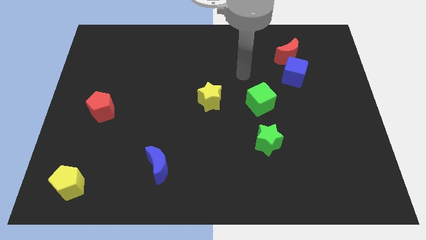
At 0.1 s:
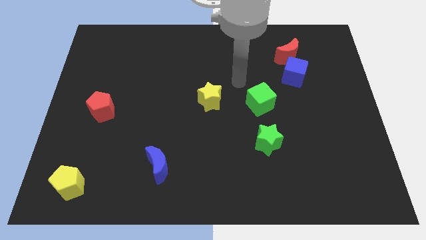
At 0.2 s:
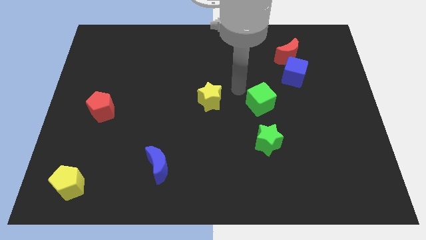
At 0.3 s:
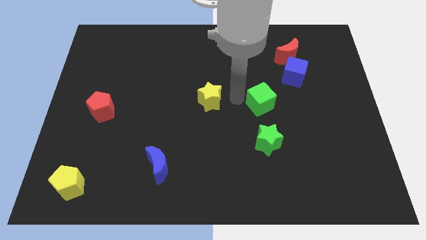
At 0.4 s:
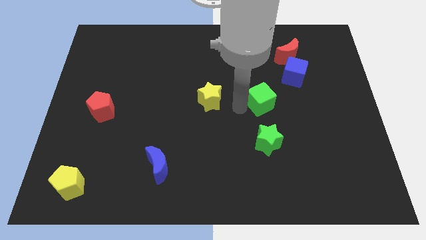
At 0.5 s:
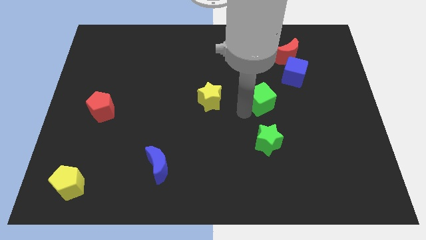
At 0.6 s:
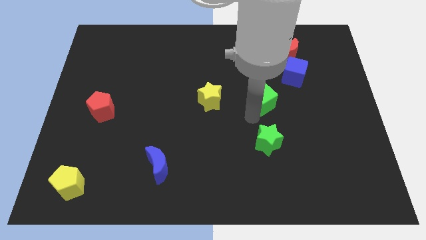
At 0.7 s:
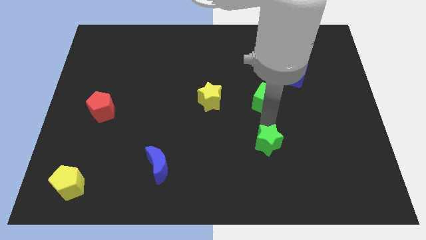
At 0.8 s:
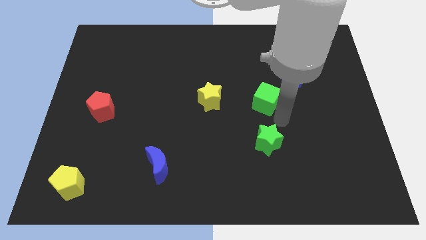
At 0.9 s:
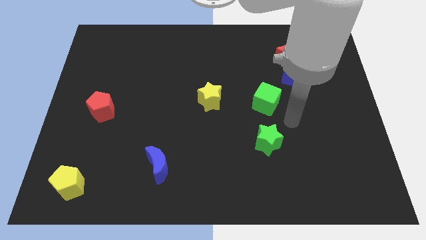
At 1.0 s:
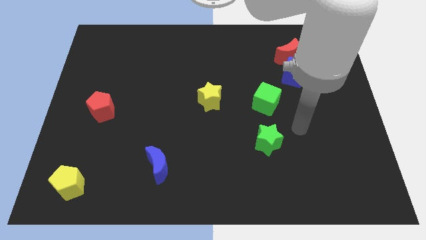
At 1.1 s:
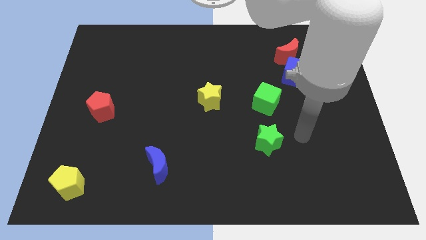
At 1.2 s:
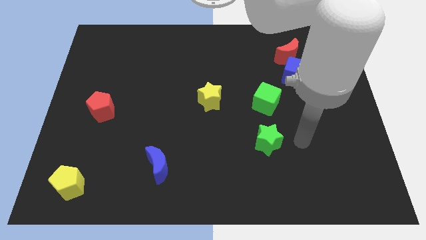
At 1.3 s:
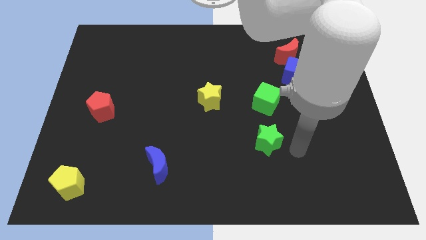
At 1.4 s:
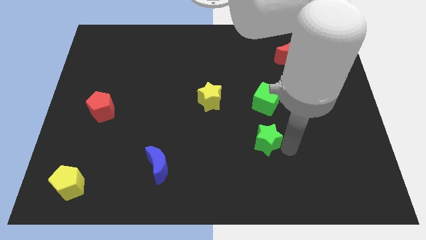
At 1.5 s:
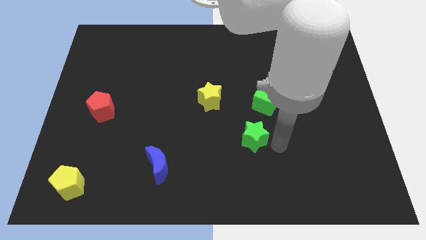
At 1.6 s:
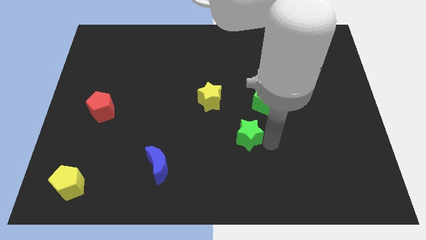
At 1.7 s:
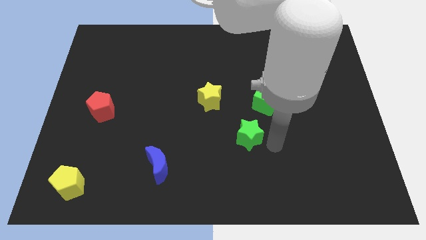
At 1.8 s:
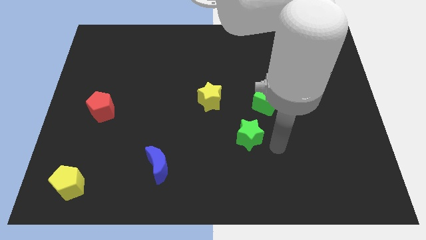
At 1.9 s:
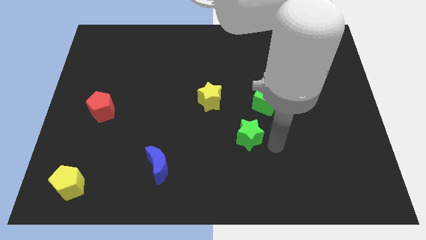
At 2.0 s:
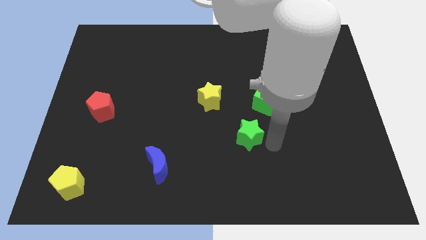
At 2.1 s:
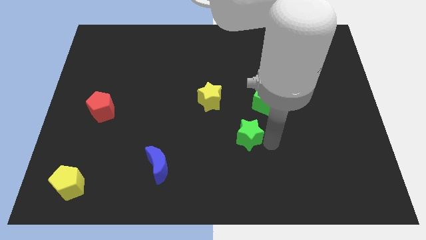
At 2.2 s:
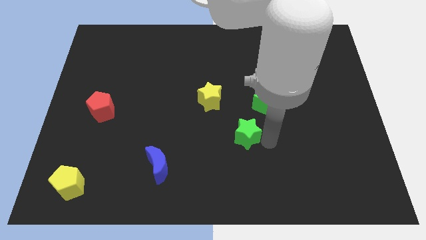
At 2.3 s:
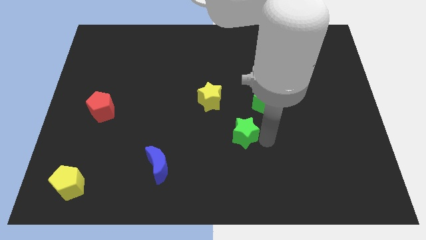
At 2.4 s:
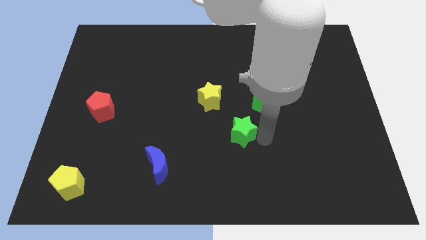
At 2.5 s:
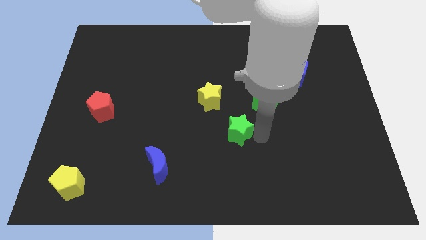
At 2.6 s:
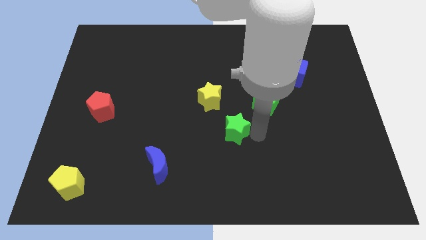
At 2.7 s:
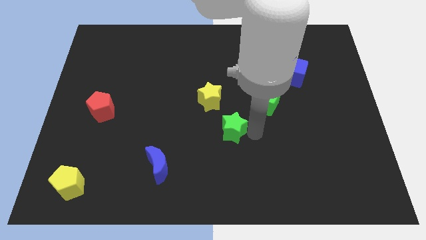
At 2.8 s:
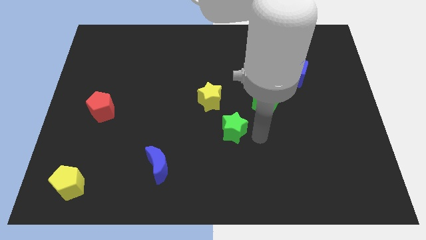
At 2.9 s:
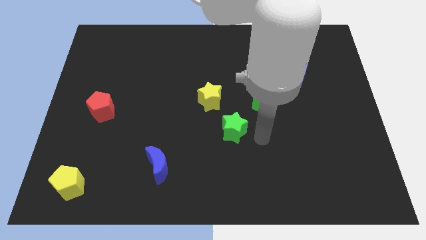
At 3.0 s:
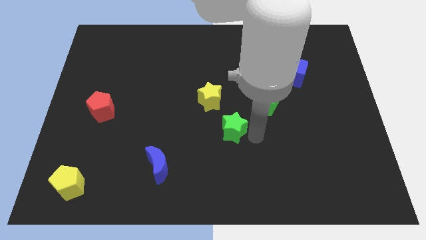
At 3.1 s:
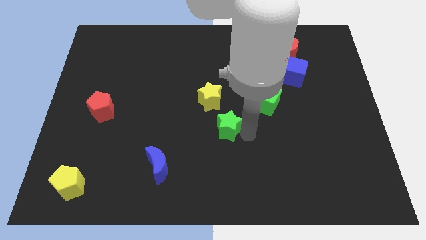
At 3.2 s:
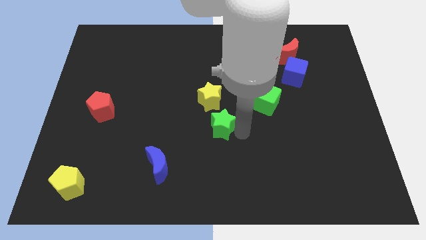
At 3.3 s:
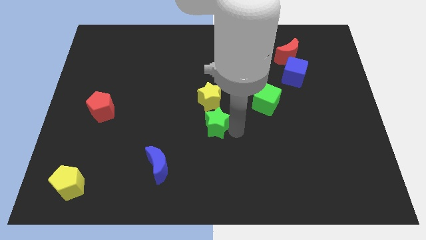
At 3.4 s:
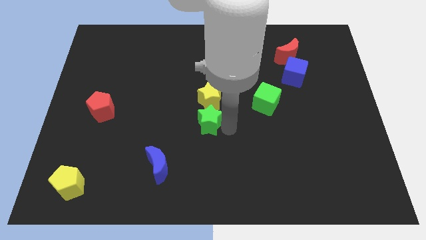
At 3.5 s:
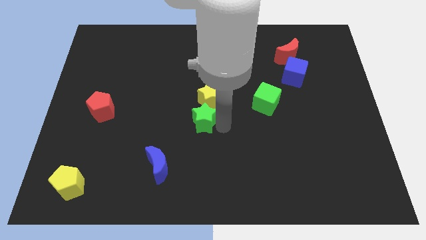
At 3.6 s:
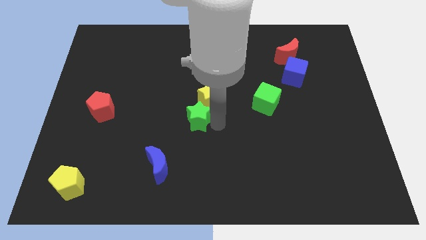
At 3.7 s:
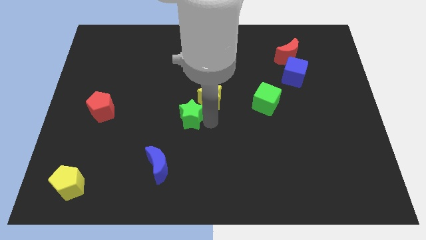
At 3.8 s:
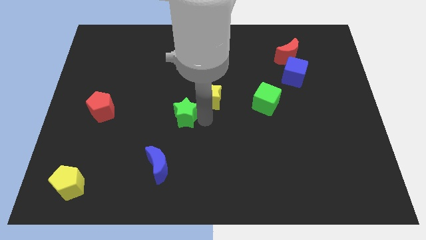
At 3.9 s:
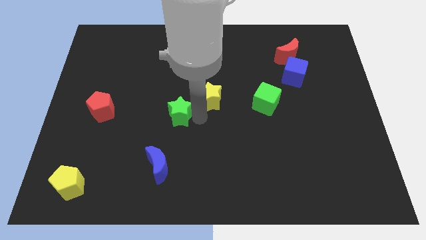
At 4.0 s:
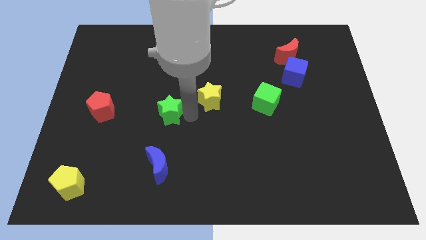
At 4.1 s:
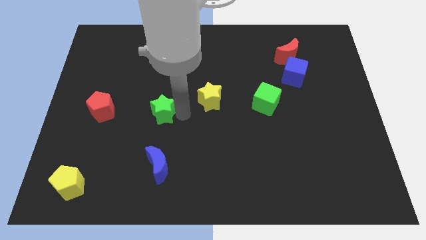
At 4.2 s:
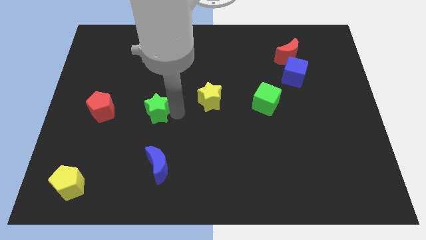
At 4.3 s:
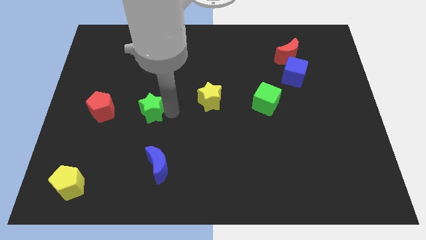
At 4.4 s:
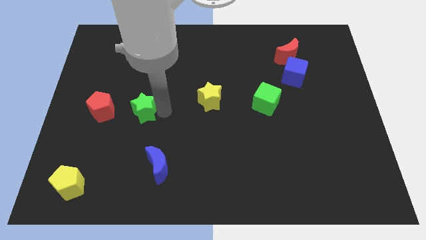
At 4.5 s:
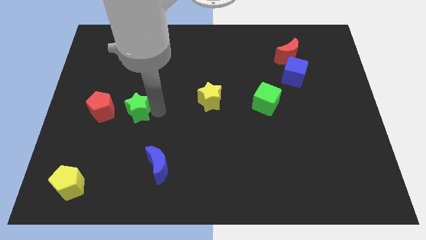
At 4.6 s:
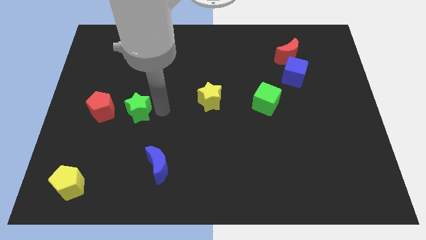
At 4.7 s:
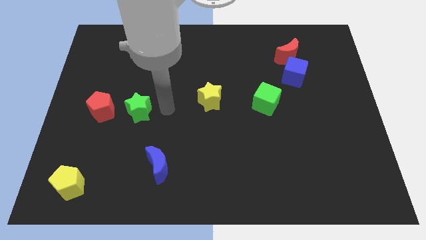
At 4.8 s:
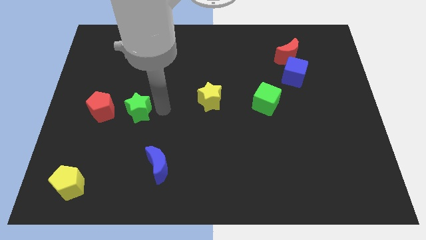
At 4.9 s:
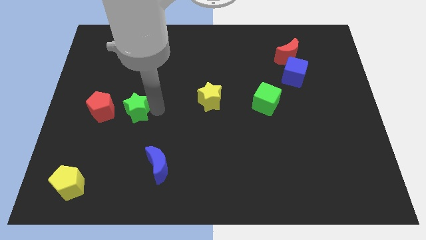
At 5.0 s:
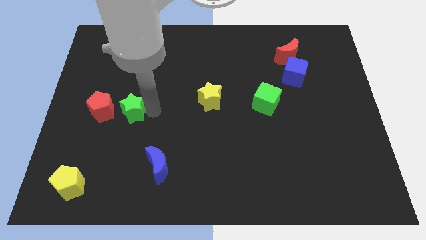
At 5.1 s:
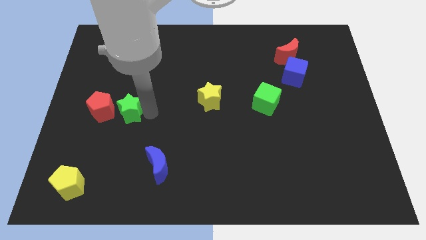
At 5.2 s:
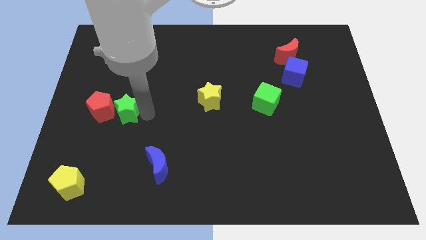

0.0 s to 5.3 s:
push the green star close to the red pentagon
